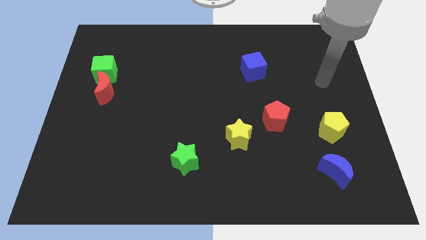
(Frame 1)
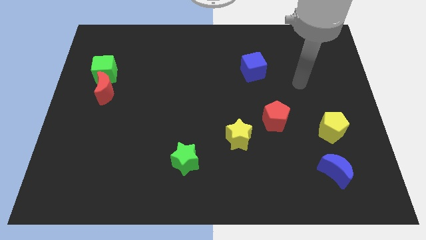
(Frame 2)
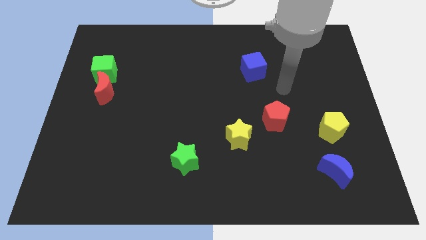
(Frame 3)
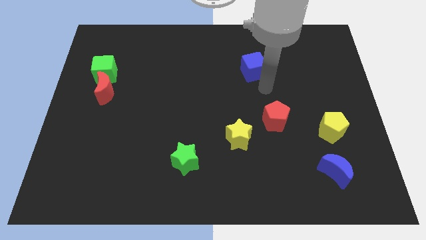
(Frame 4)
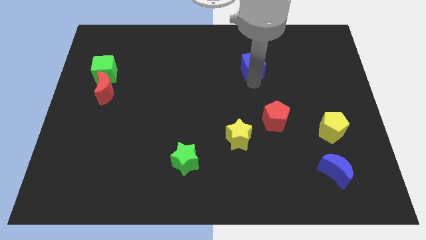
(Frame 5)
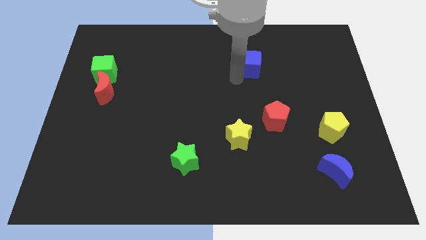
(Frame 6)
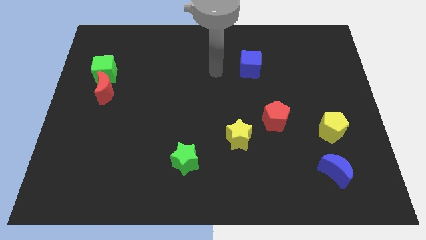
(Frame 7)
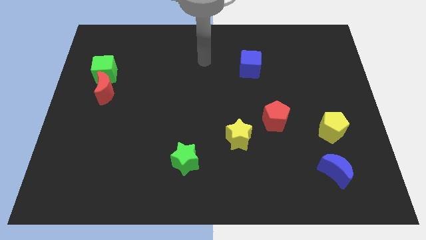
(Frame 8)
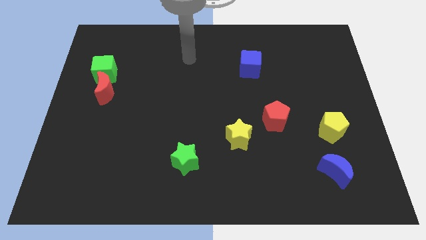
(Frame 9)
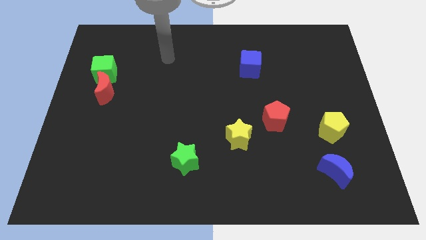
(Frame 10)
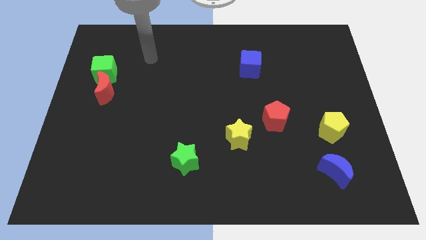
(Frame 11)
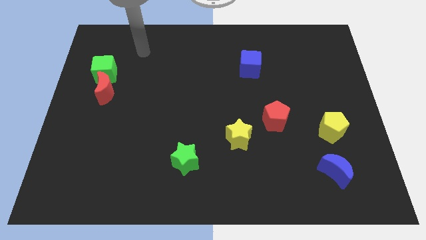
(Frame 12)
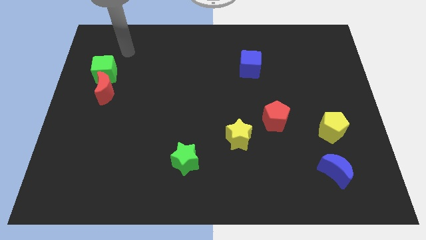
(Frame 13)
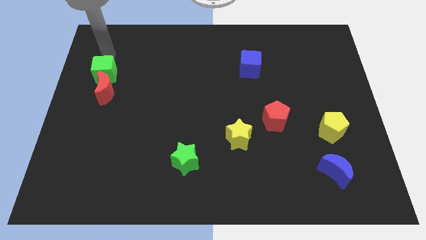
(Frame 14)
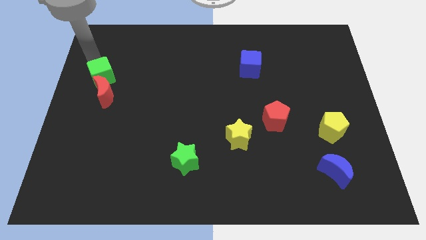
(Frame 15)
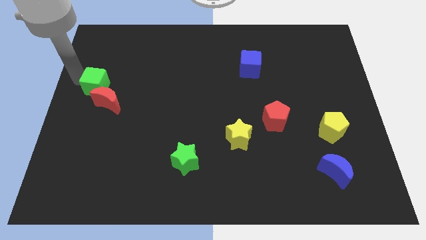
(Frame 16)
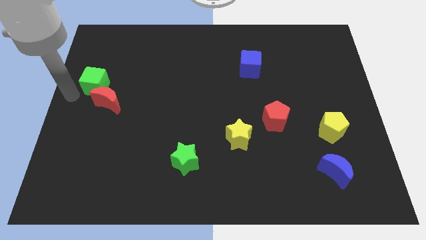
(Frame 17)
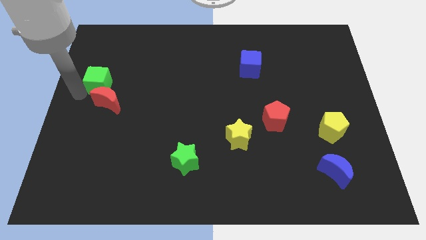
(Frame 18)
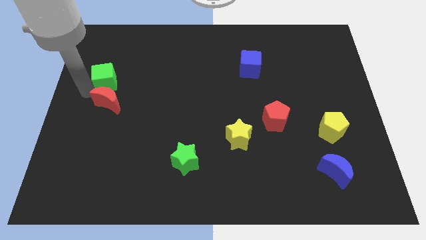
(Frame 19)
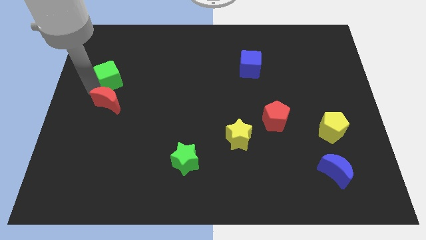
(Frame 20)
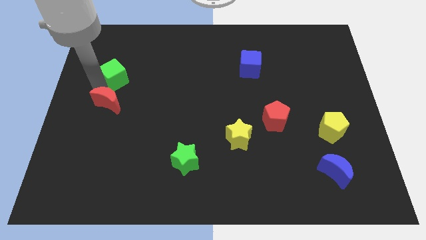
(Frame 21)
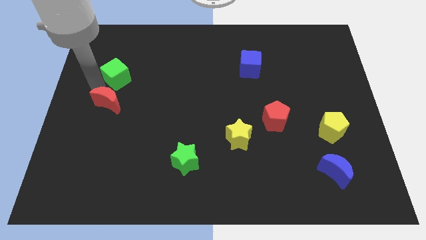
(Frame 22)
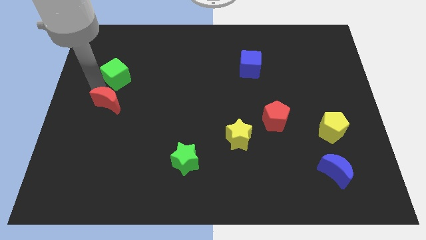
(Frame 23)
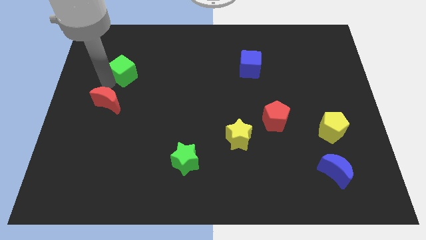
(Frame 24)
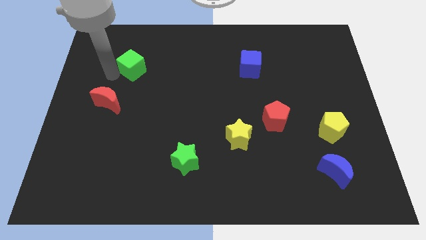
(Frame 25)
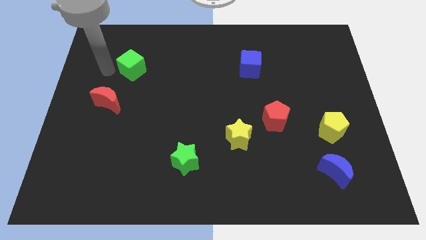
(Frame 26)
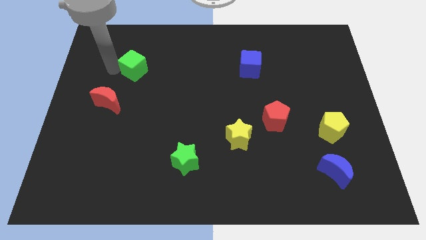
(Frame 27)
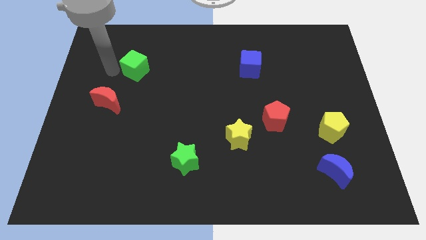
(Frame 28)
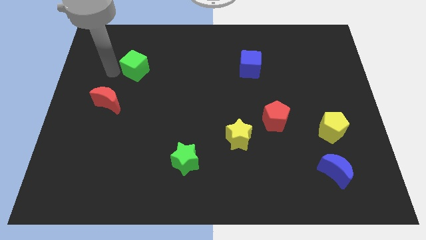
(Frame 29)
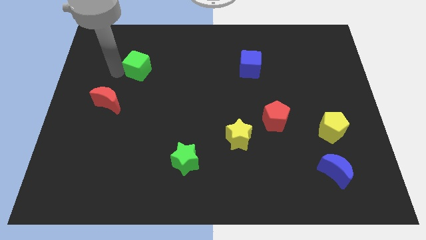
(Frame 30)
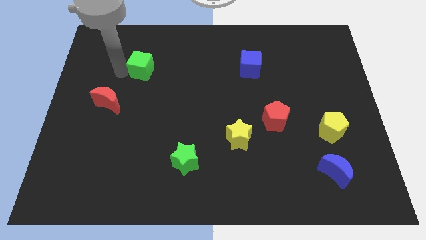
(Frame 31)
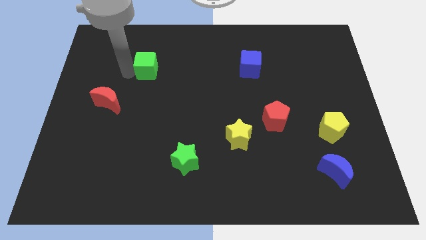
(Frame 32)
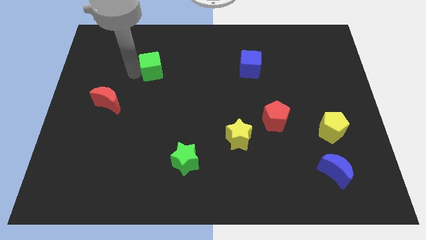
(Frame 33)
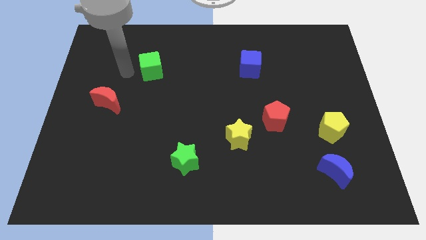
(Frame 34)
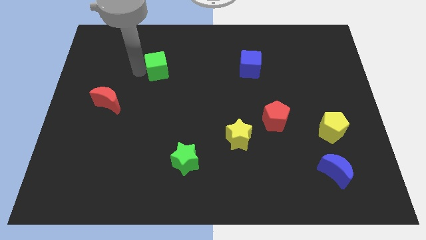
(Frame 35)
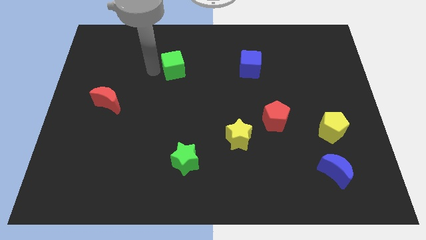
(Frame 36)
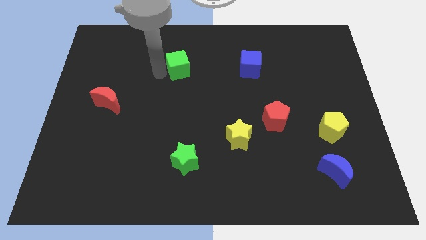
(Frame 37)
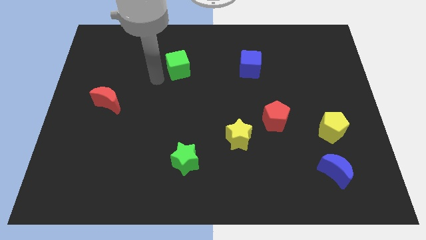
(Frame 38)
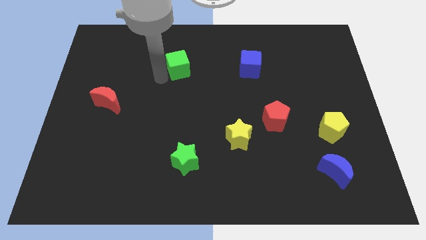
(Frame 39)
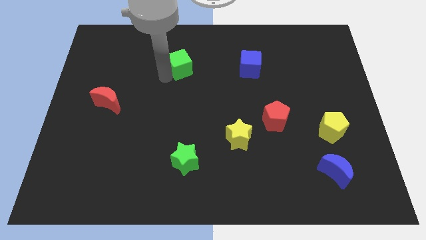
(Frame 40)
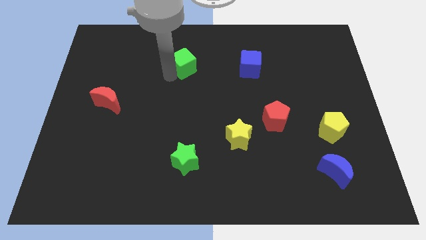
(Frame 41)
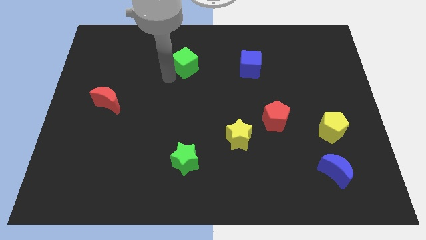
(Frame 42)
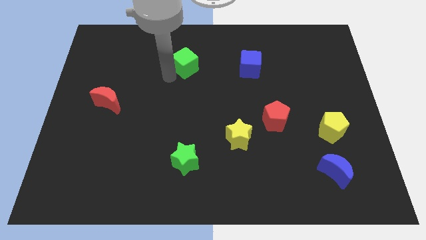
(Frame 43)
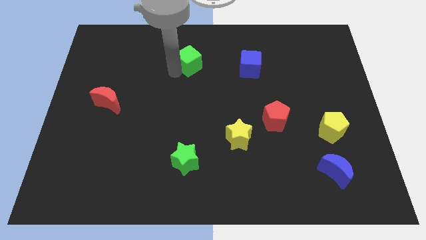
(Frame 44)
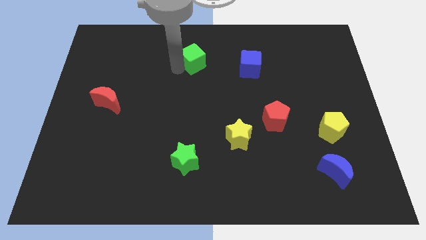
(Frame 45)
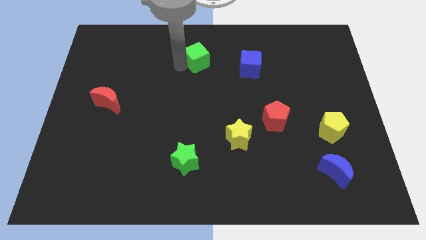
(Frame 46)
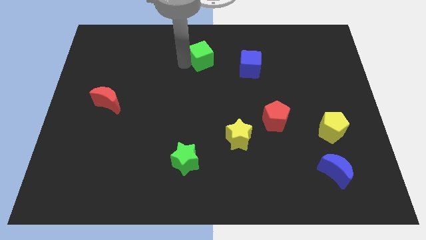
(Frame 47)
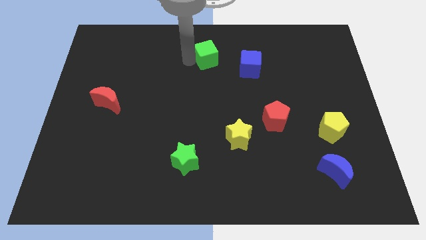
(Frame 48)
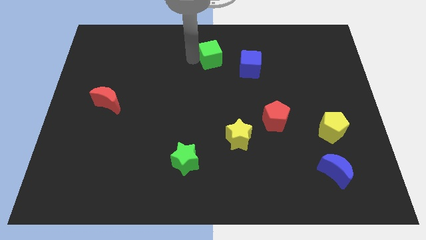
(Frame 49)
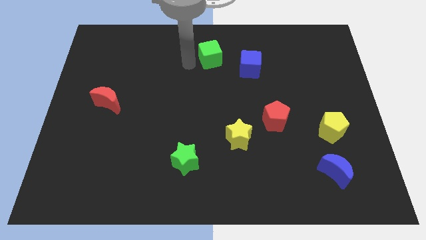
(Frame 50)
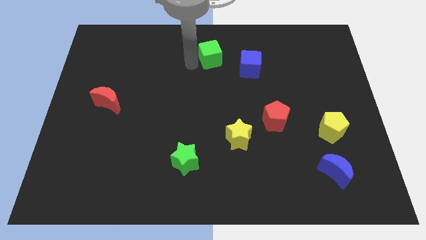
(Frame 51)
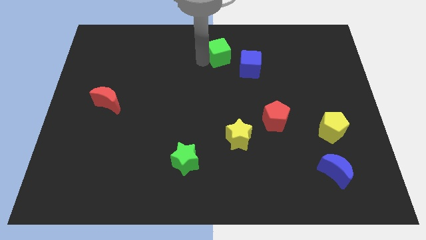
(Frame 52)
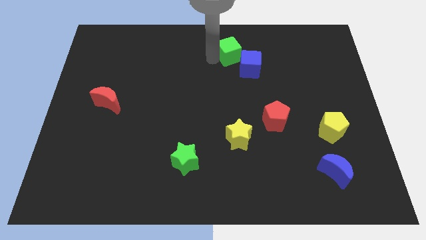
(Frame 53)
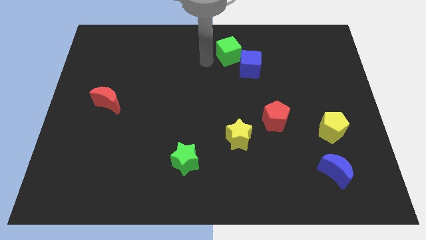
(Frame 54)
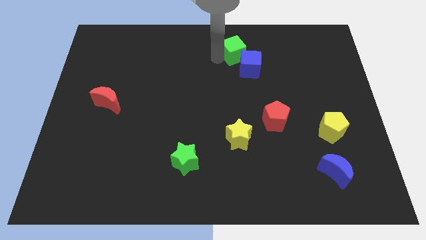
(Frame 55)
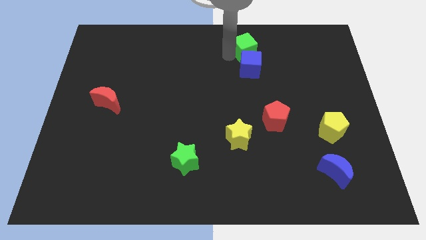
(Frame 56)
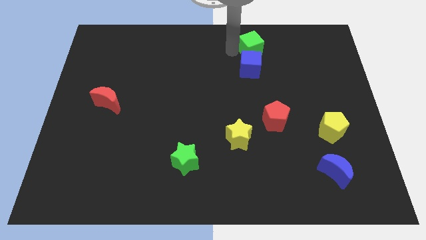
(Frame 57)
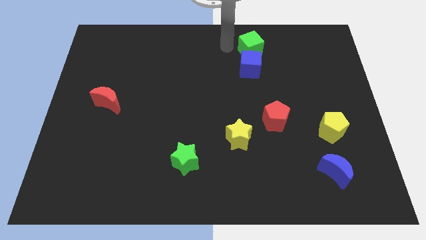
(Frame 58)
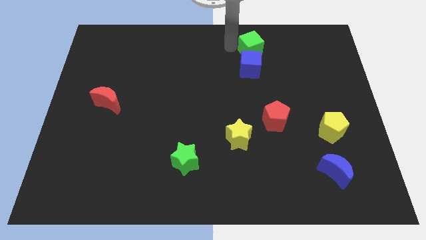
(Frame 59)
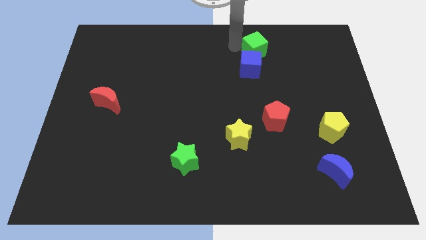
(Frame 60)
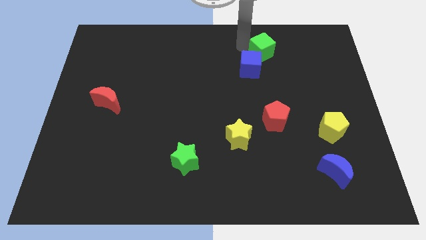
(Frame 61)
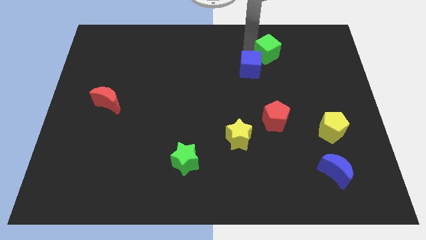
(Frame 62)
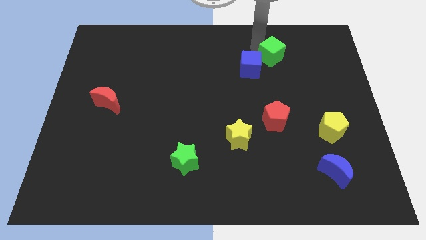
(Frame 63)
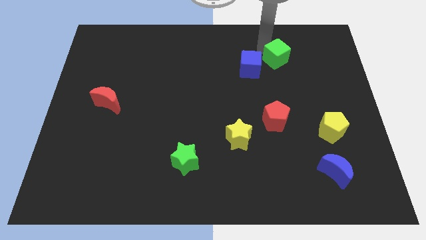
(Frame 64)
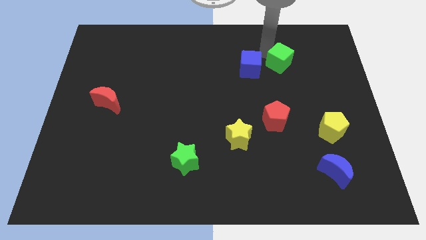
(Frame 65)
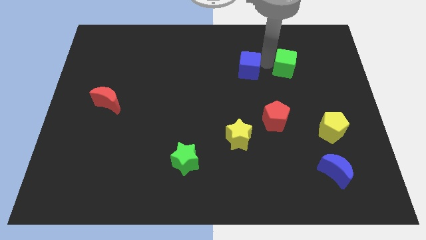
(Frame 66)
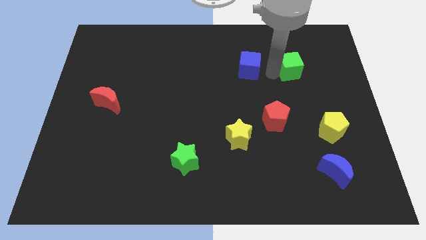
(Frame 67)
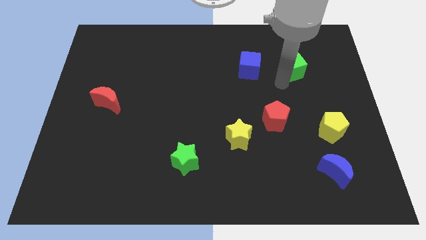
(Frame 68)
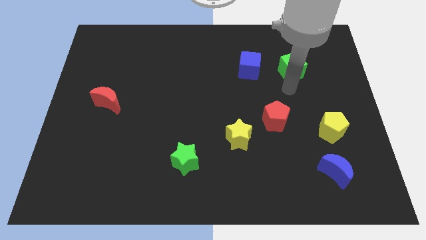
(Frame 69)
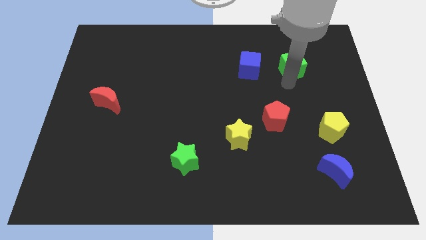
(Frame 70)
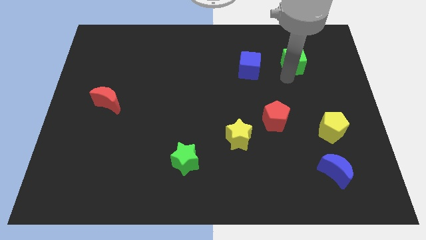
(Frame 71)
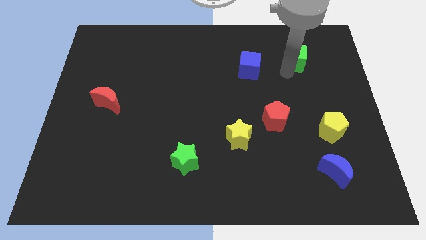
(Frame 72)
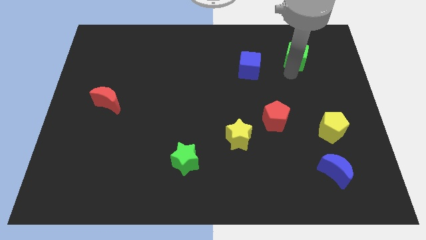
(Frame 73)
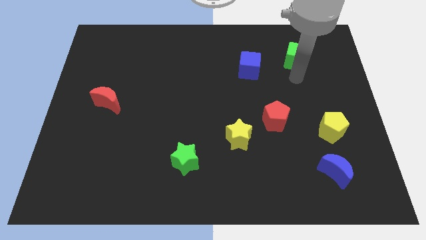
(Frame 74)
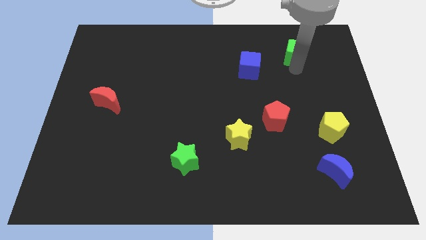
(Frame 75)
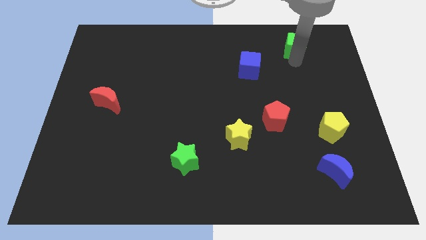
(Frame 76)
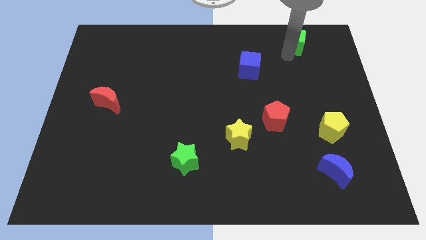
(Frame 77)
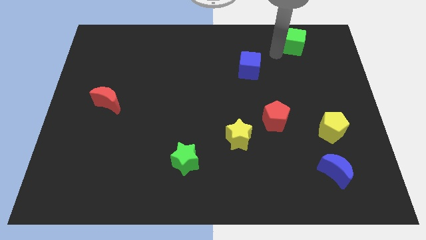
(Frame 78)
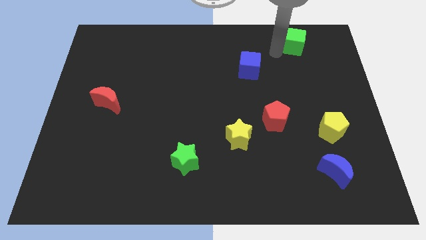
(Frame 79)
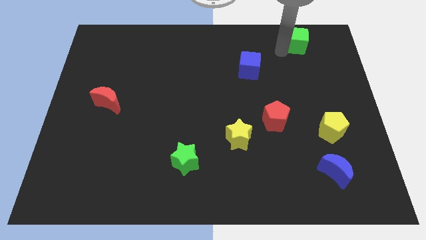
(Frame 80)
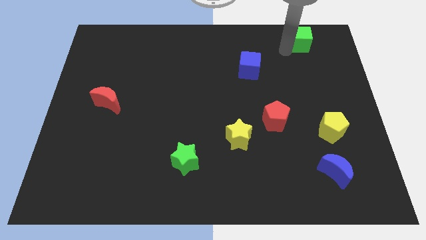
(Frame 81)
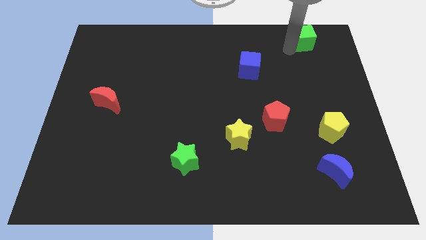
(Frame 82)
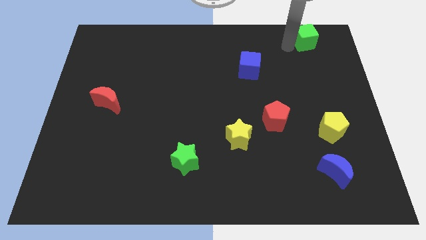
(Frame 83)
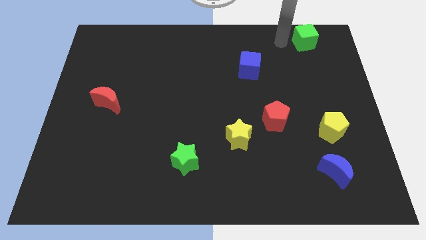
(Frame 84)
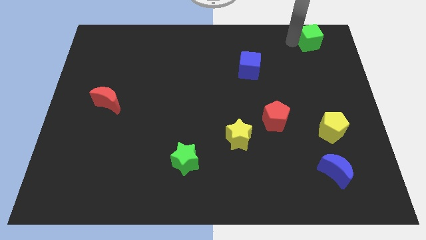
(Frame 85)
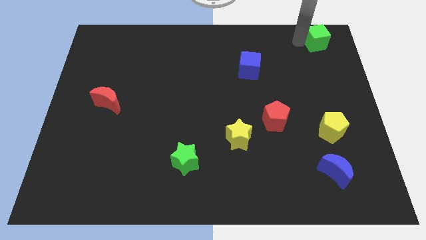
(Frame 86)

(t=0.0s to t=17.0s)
slide the green cube to the upper right corner
